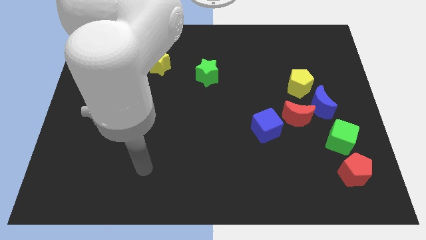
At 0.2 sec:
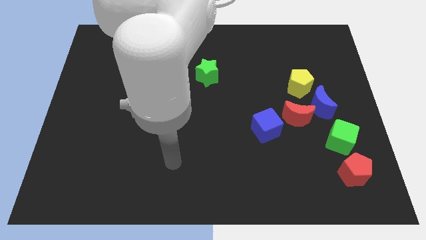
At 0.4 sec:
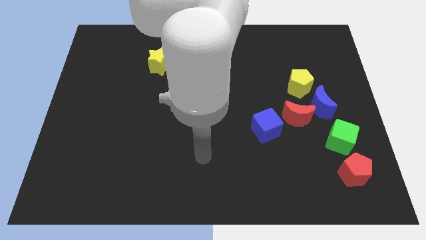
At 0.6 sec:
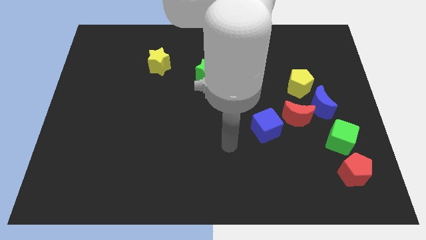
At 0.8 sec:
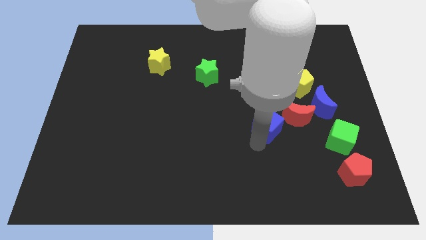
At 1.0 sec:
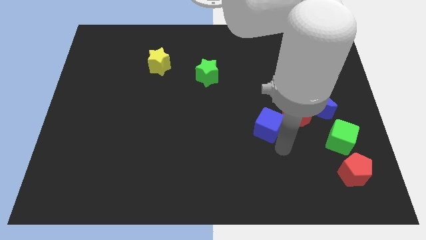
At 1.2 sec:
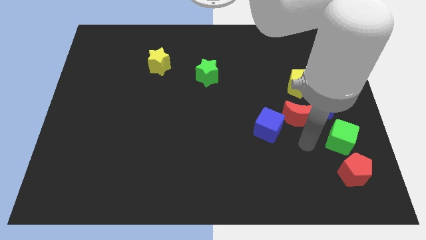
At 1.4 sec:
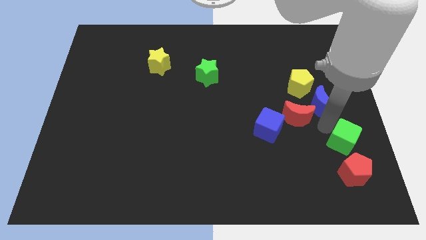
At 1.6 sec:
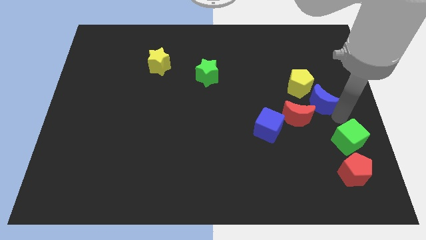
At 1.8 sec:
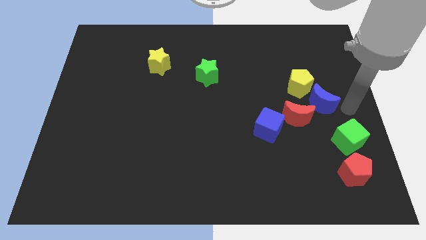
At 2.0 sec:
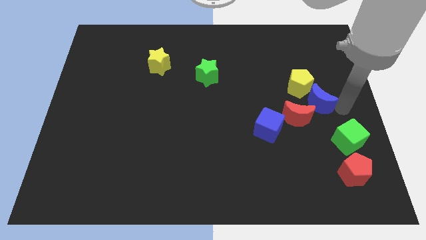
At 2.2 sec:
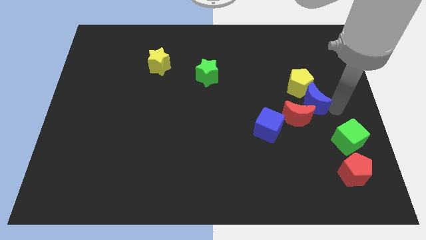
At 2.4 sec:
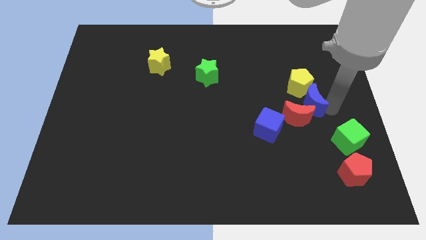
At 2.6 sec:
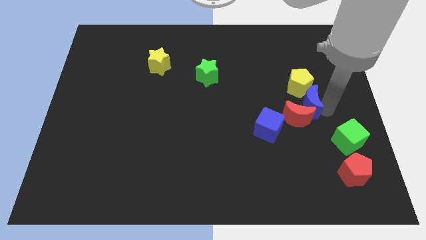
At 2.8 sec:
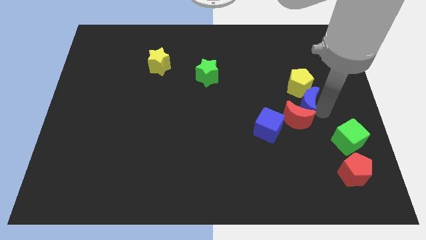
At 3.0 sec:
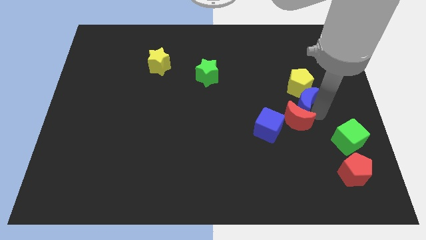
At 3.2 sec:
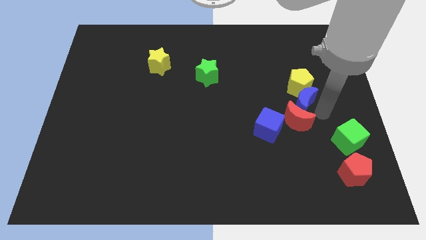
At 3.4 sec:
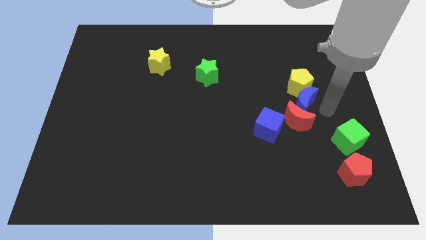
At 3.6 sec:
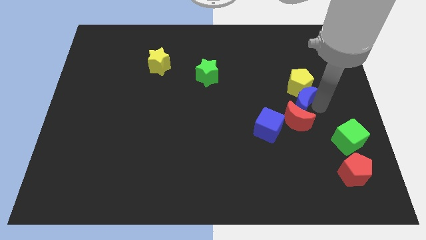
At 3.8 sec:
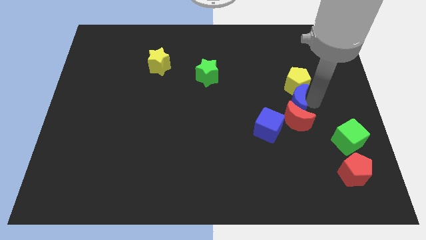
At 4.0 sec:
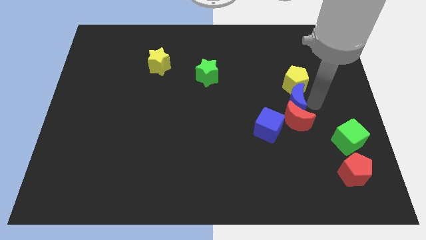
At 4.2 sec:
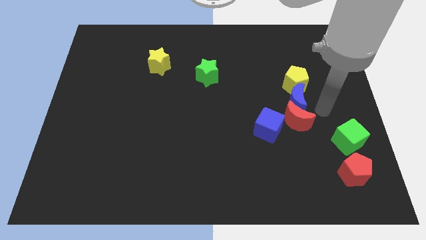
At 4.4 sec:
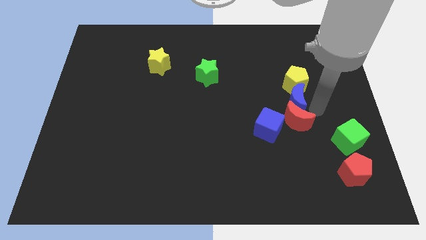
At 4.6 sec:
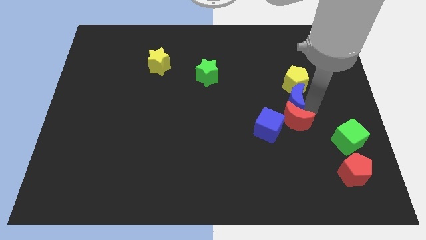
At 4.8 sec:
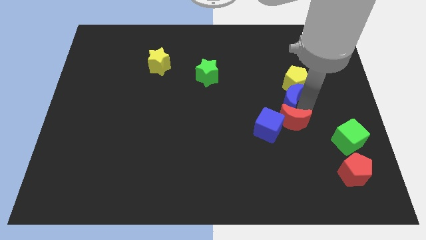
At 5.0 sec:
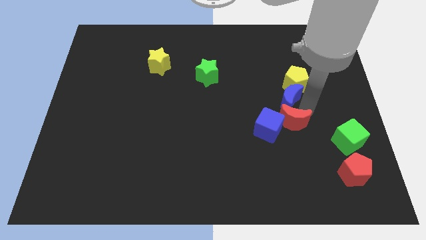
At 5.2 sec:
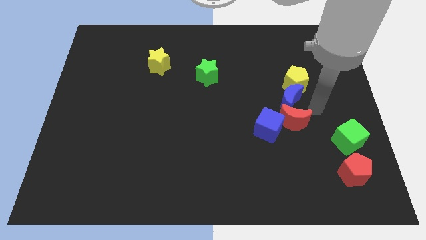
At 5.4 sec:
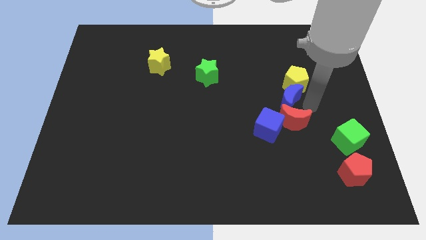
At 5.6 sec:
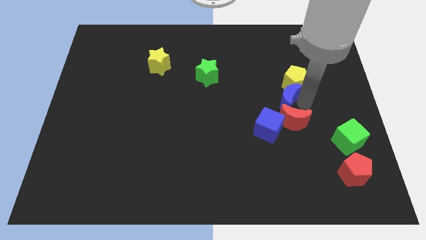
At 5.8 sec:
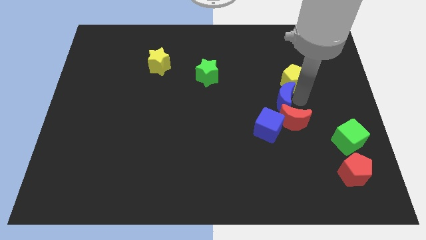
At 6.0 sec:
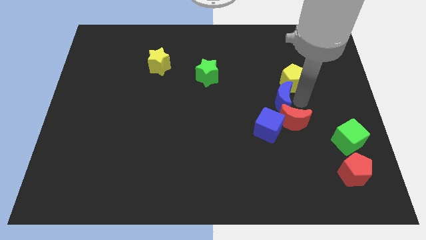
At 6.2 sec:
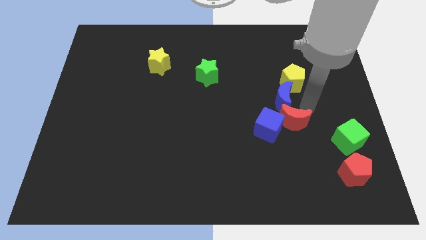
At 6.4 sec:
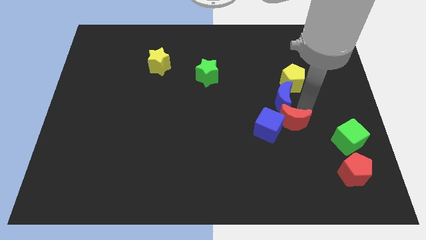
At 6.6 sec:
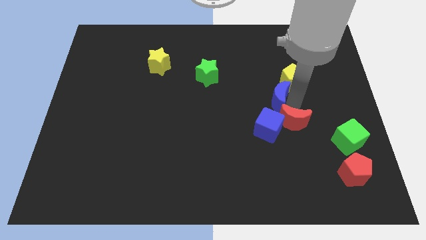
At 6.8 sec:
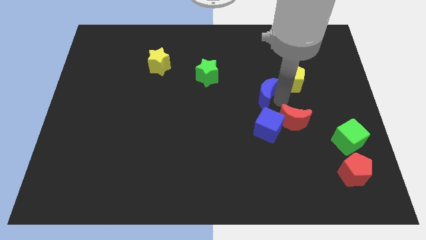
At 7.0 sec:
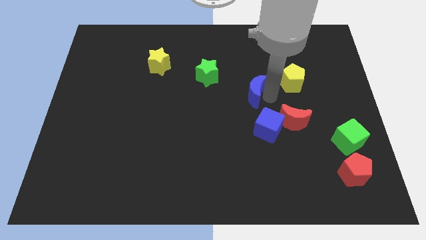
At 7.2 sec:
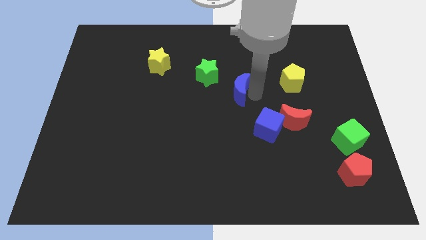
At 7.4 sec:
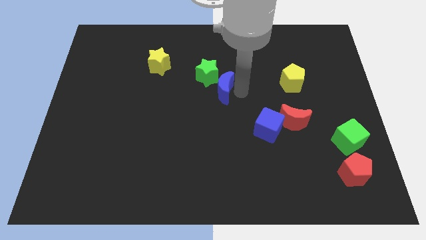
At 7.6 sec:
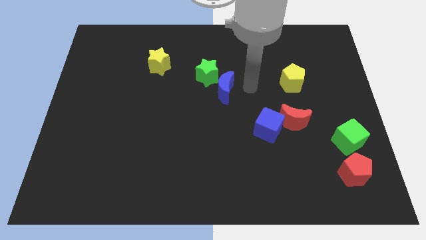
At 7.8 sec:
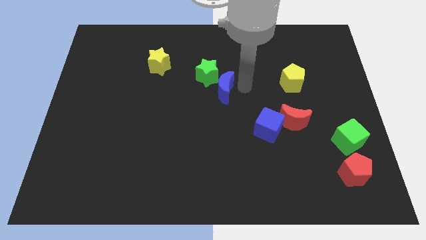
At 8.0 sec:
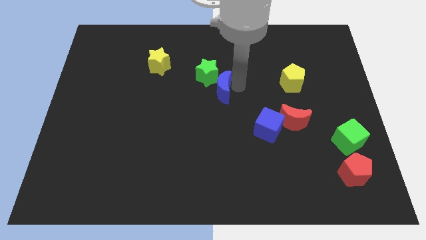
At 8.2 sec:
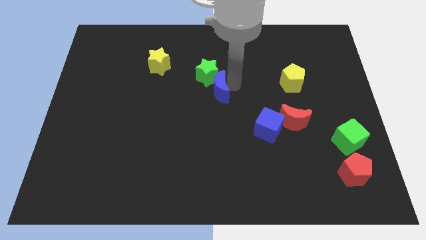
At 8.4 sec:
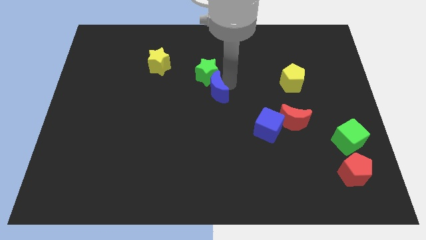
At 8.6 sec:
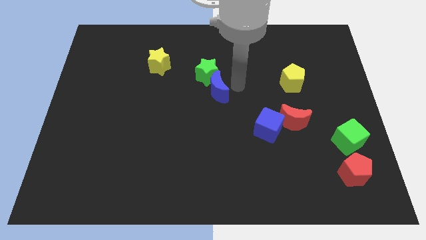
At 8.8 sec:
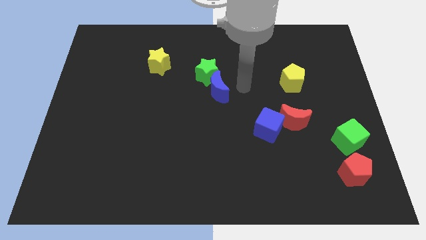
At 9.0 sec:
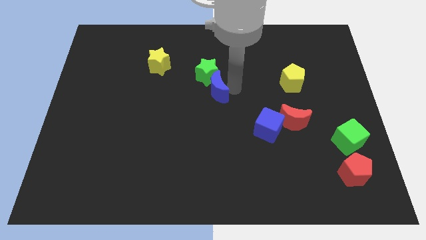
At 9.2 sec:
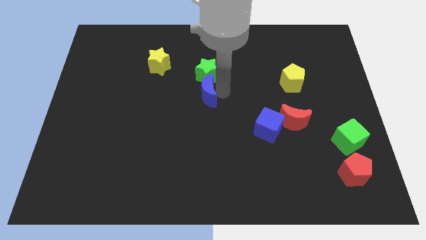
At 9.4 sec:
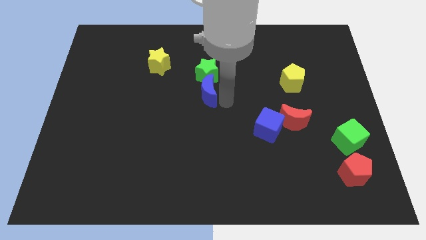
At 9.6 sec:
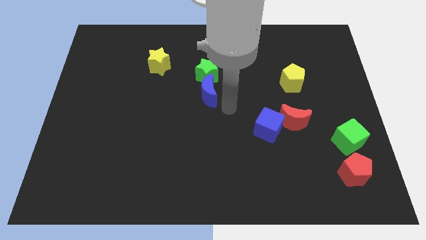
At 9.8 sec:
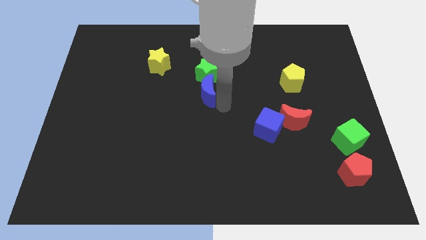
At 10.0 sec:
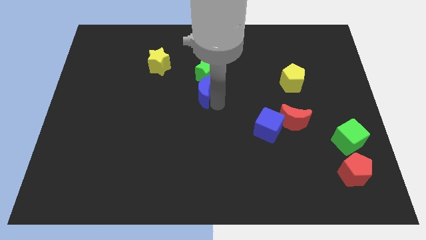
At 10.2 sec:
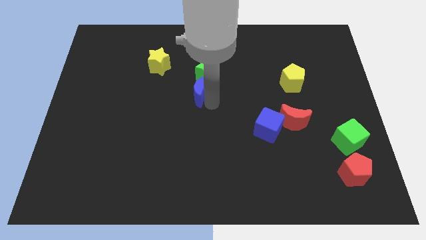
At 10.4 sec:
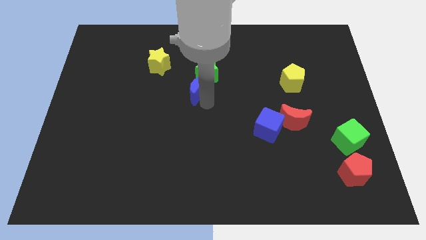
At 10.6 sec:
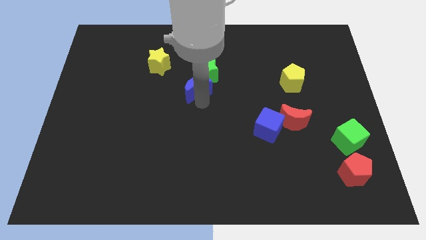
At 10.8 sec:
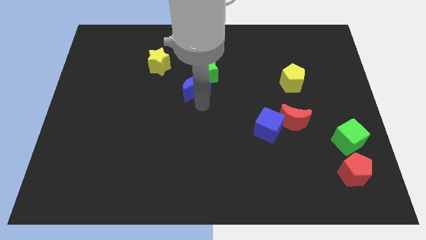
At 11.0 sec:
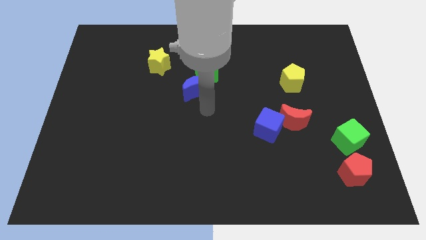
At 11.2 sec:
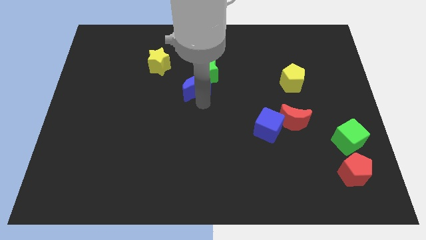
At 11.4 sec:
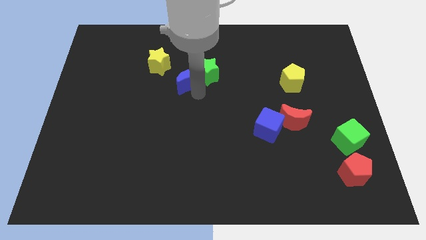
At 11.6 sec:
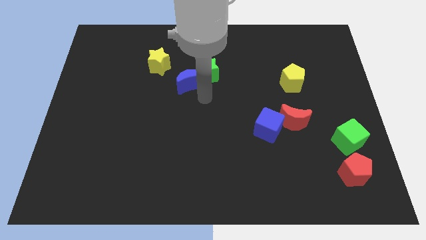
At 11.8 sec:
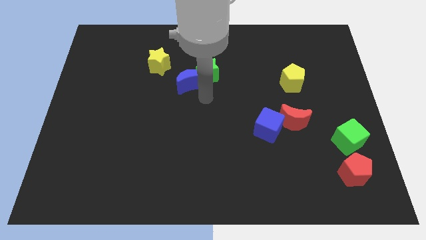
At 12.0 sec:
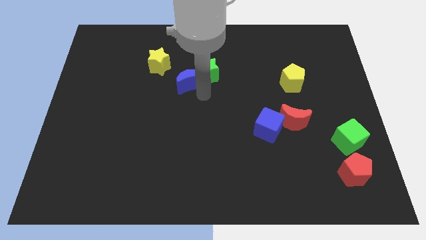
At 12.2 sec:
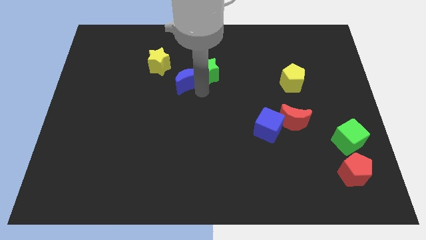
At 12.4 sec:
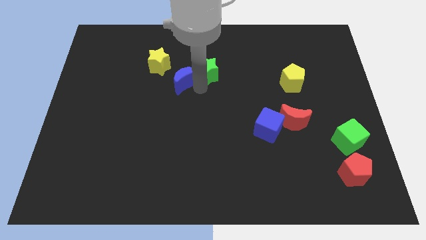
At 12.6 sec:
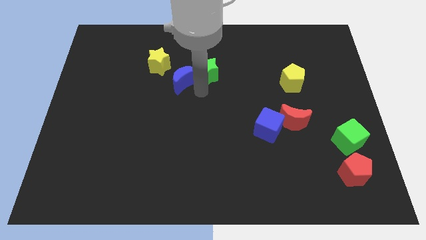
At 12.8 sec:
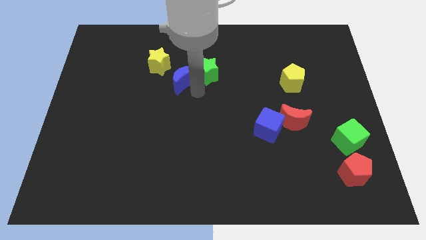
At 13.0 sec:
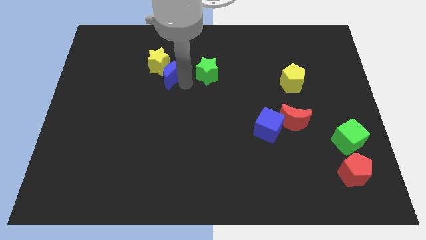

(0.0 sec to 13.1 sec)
put the blue moon towards the yellow star
